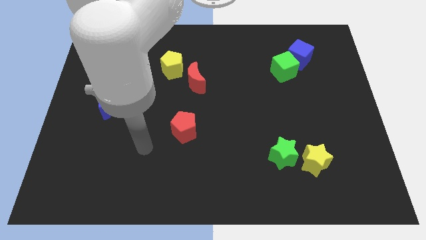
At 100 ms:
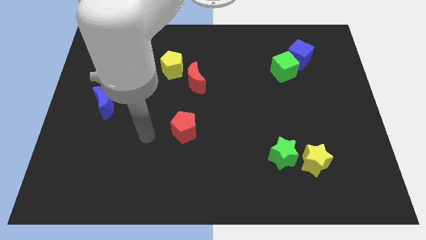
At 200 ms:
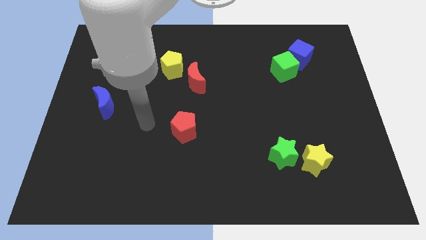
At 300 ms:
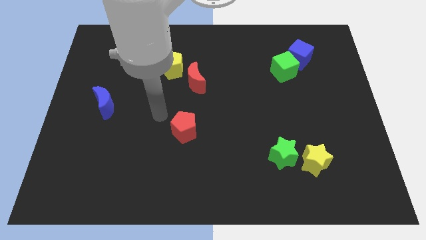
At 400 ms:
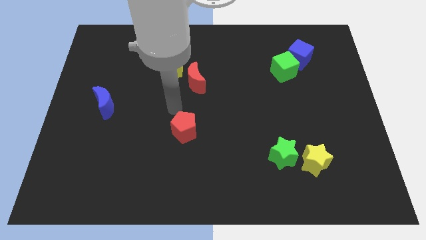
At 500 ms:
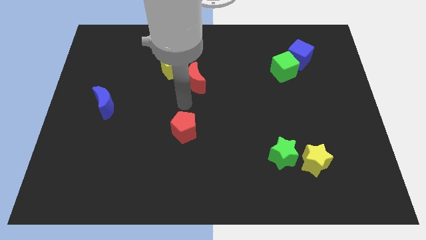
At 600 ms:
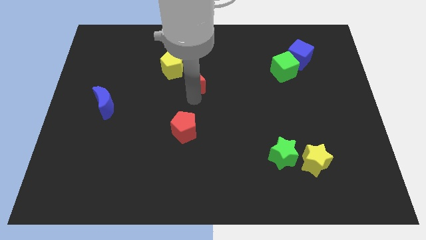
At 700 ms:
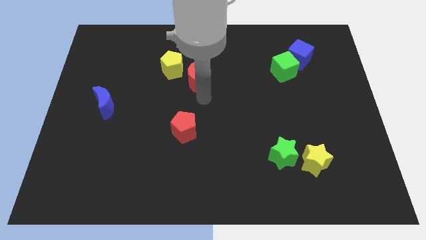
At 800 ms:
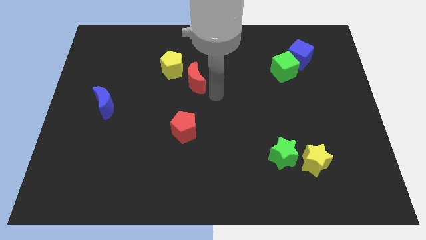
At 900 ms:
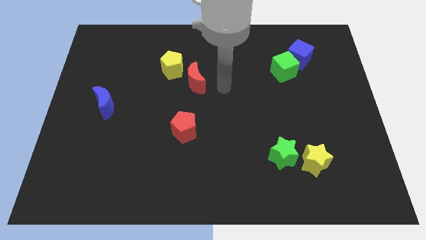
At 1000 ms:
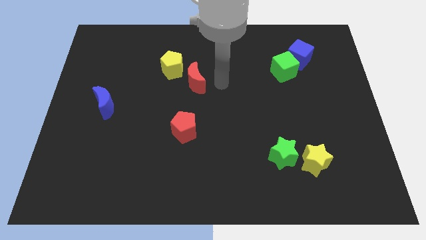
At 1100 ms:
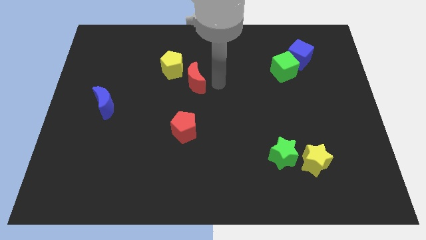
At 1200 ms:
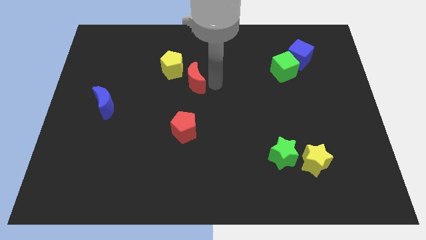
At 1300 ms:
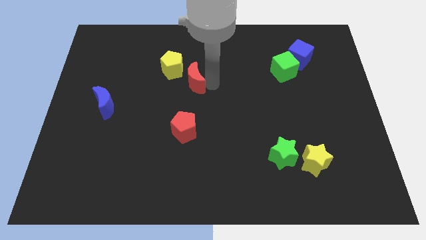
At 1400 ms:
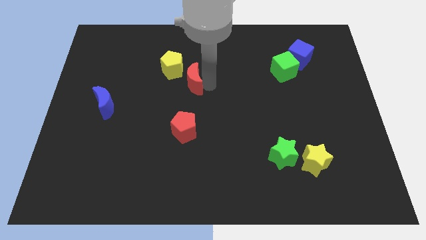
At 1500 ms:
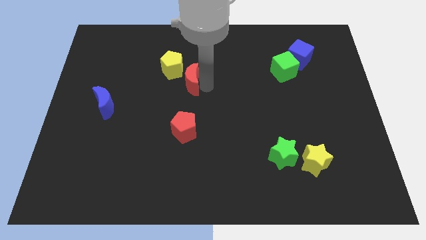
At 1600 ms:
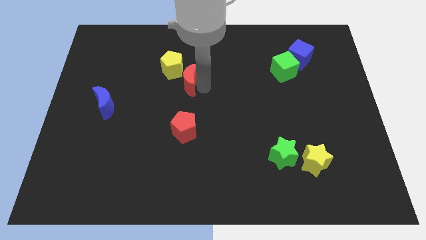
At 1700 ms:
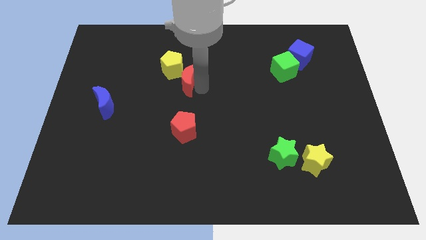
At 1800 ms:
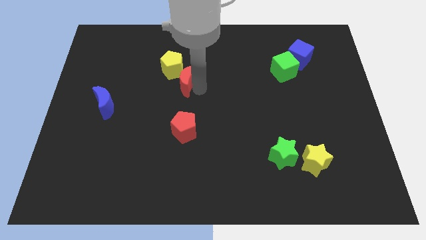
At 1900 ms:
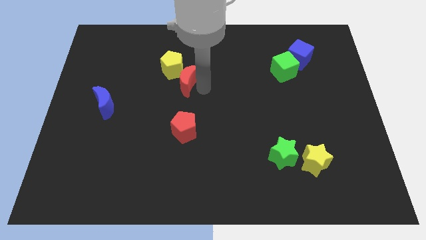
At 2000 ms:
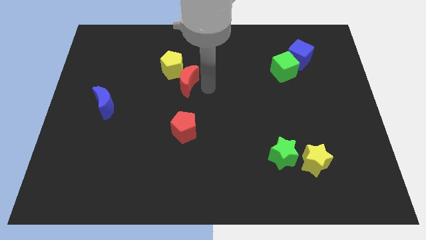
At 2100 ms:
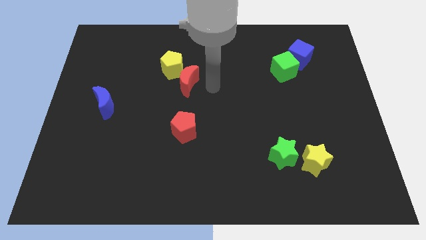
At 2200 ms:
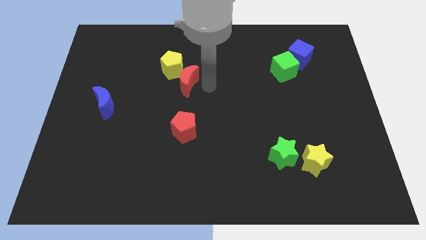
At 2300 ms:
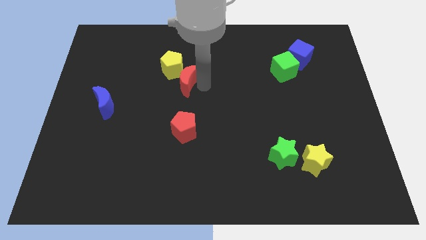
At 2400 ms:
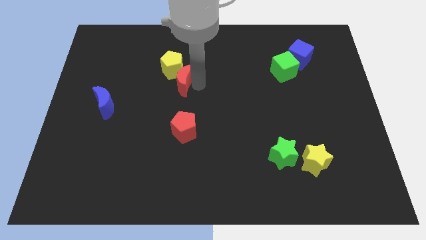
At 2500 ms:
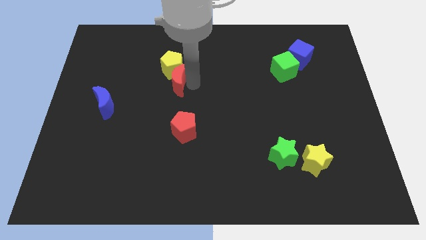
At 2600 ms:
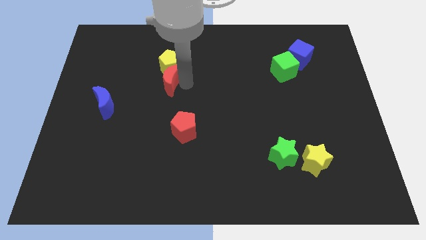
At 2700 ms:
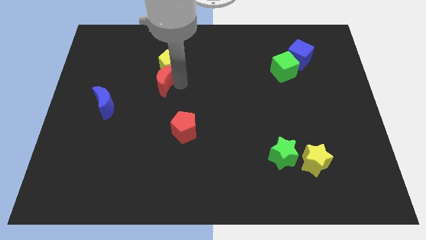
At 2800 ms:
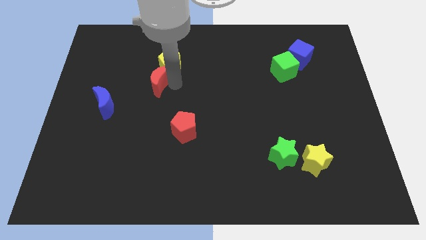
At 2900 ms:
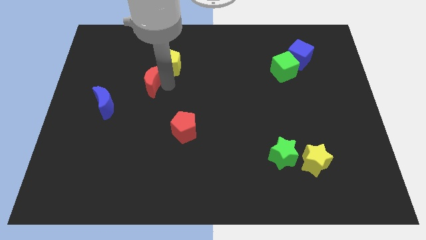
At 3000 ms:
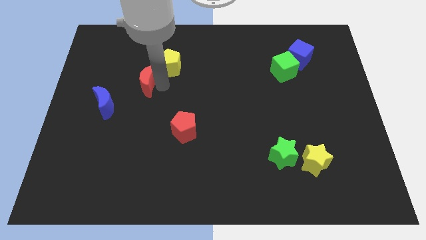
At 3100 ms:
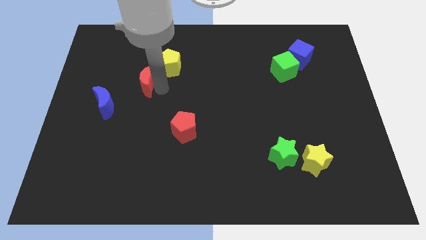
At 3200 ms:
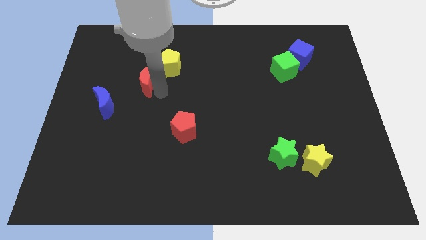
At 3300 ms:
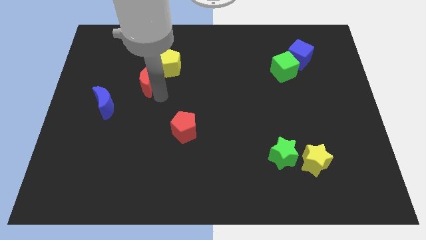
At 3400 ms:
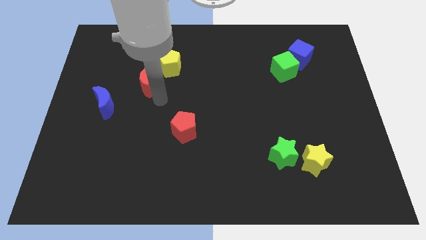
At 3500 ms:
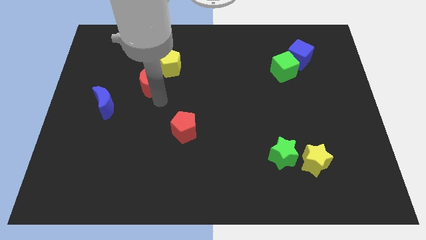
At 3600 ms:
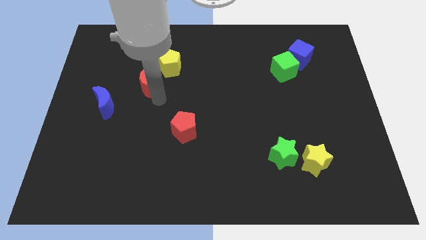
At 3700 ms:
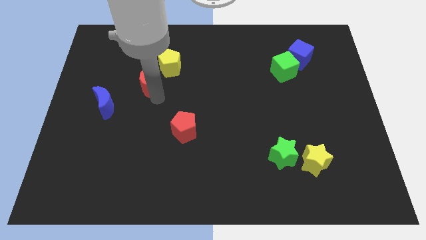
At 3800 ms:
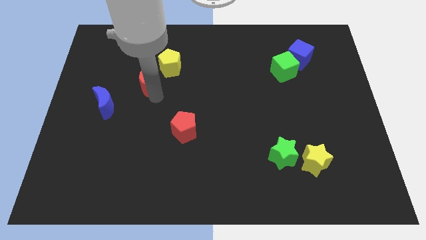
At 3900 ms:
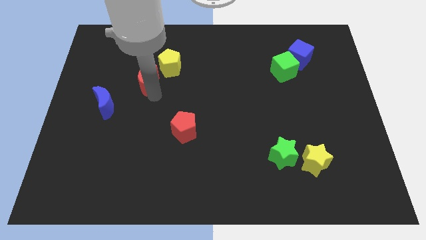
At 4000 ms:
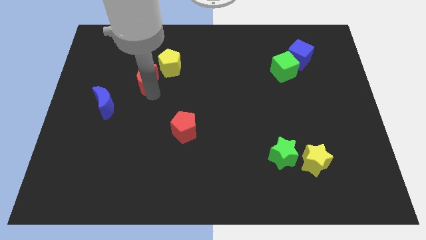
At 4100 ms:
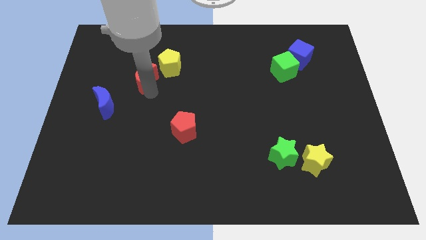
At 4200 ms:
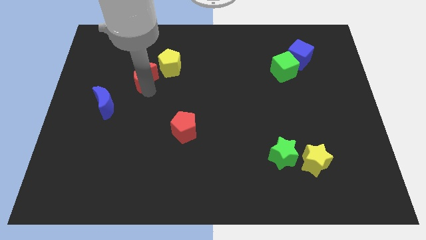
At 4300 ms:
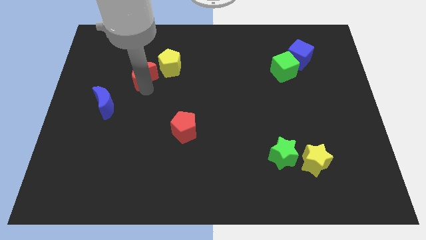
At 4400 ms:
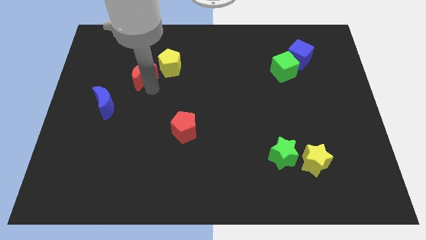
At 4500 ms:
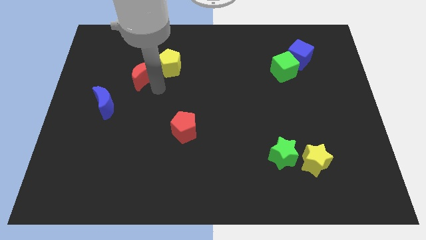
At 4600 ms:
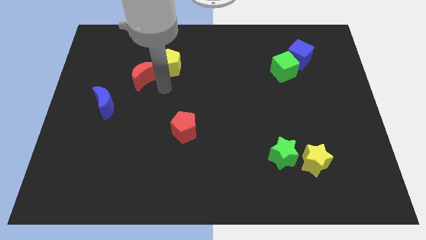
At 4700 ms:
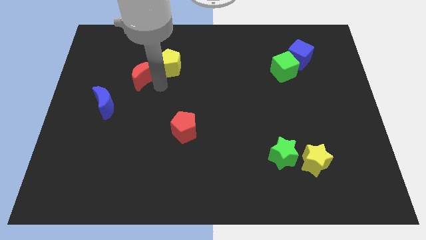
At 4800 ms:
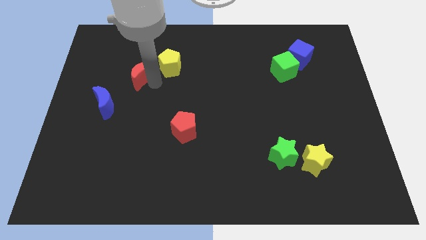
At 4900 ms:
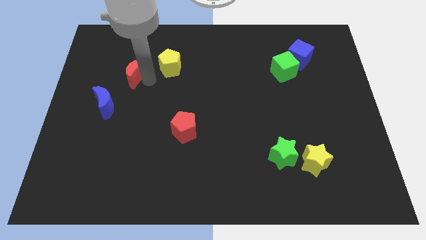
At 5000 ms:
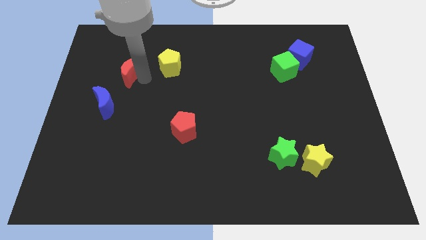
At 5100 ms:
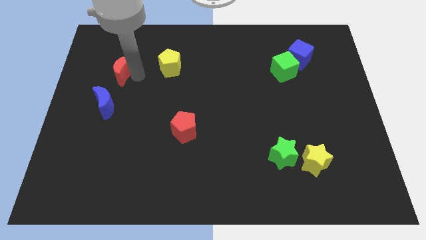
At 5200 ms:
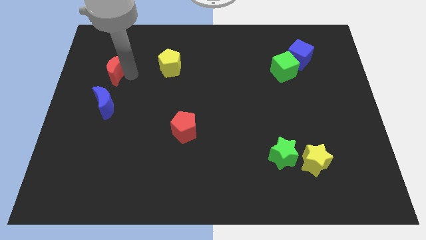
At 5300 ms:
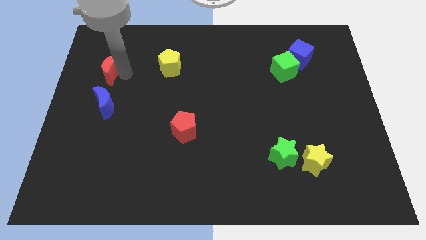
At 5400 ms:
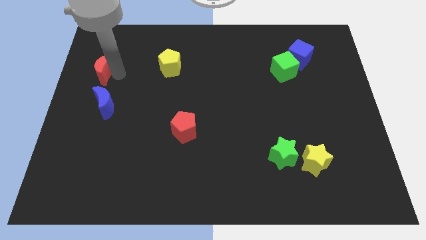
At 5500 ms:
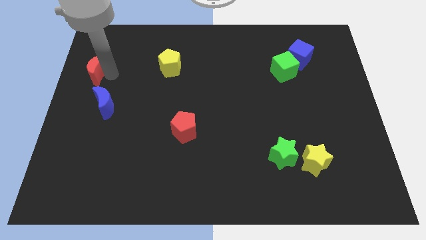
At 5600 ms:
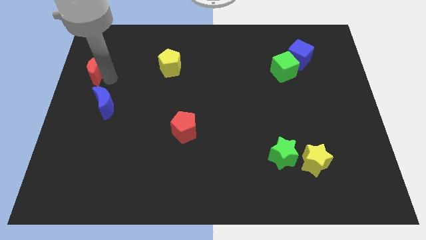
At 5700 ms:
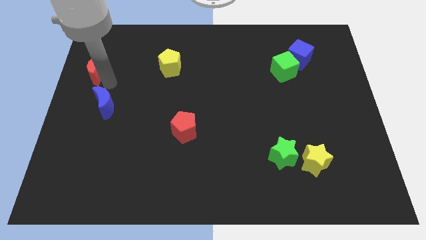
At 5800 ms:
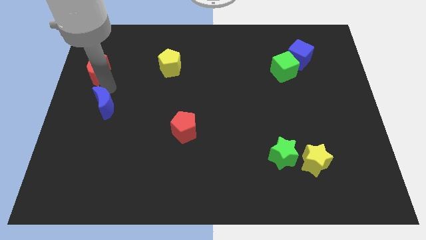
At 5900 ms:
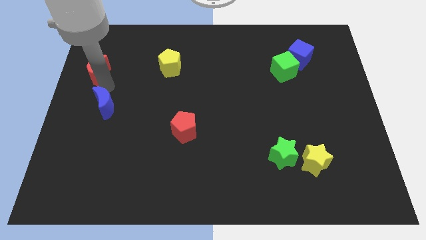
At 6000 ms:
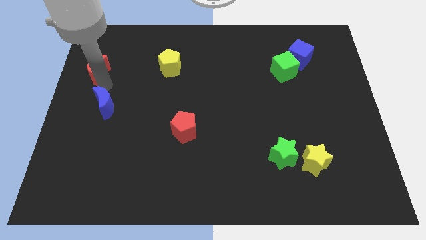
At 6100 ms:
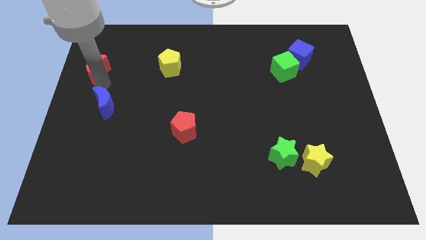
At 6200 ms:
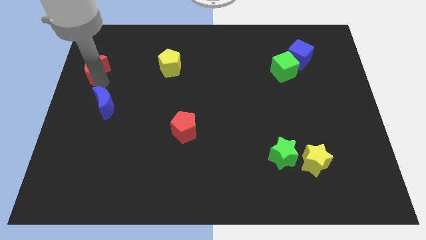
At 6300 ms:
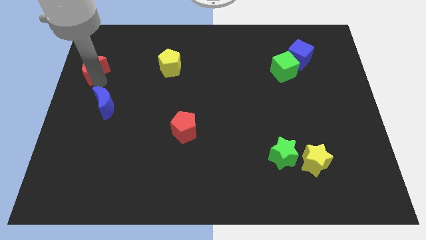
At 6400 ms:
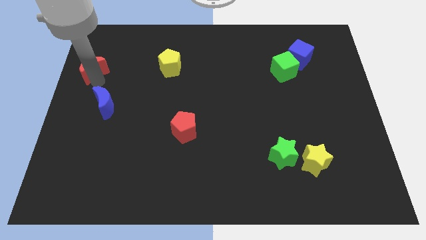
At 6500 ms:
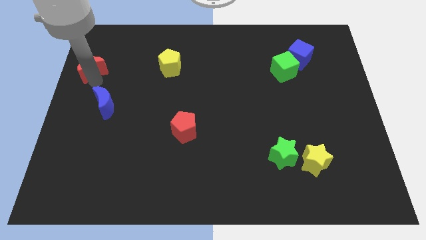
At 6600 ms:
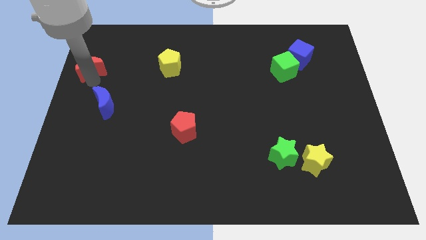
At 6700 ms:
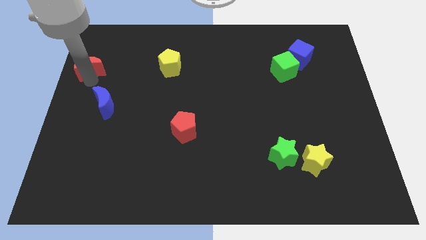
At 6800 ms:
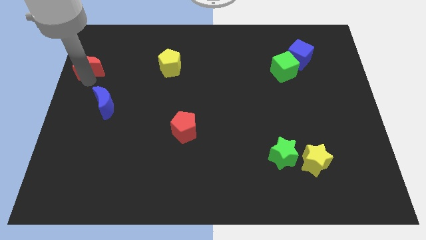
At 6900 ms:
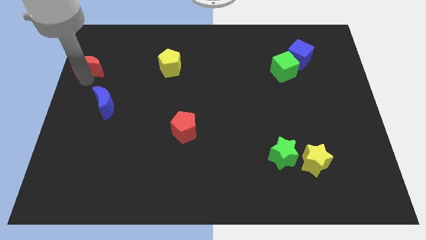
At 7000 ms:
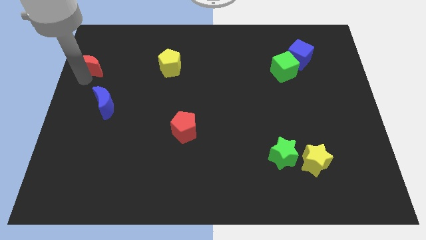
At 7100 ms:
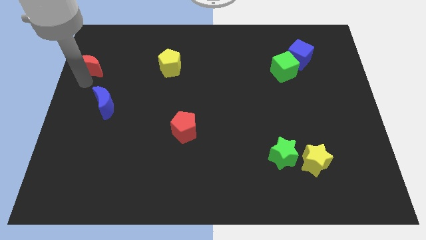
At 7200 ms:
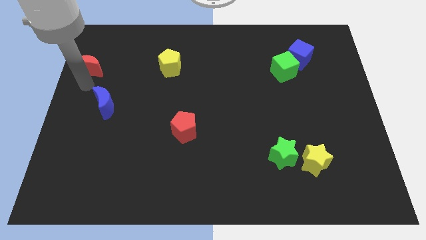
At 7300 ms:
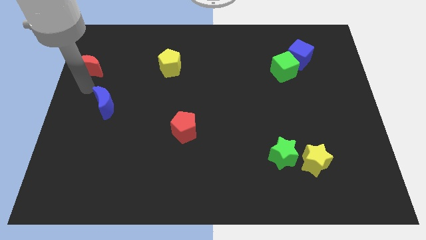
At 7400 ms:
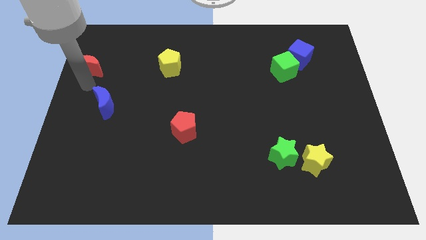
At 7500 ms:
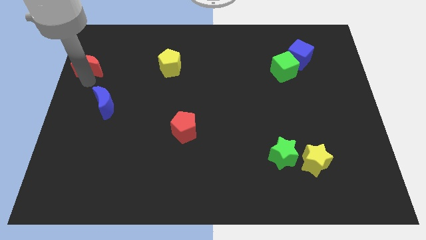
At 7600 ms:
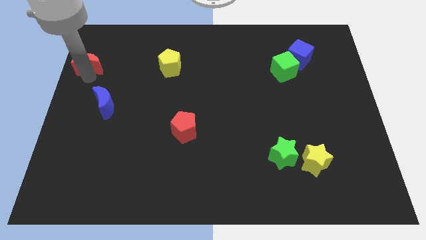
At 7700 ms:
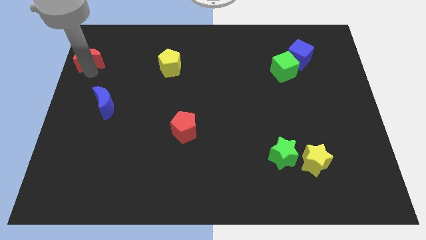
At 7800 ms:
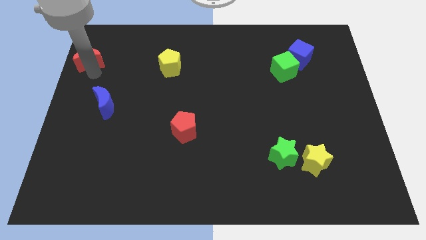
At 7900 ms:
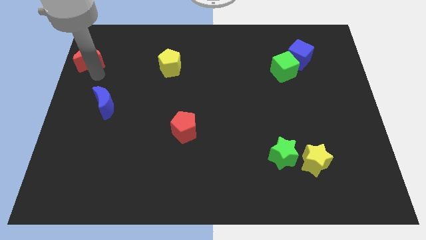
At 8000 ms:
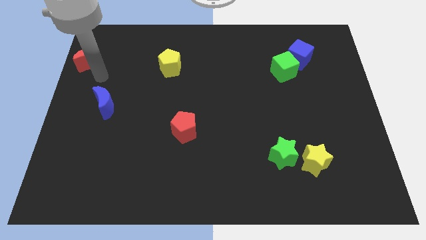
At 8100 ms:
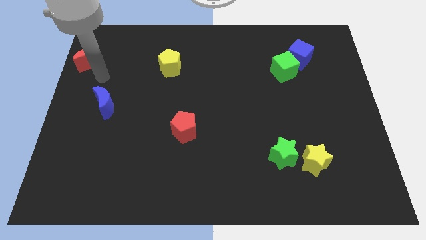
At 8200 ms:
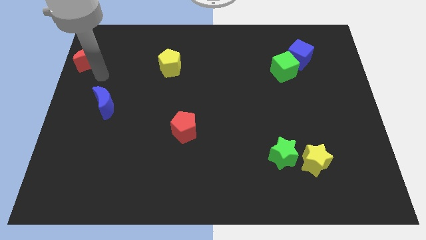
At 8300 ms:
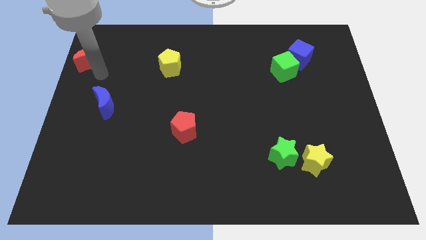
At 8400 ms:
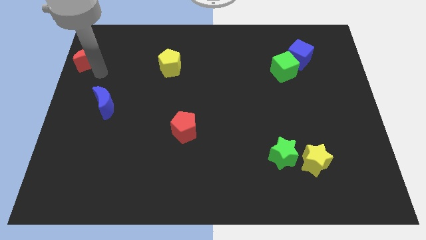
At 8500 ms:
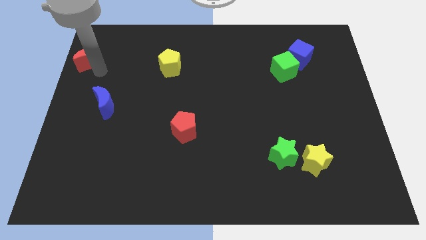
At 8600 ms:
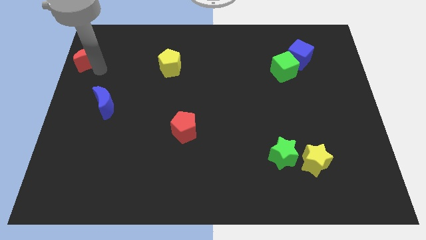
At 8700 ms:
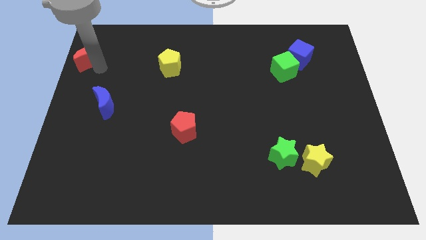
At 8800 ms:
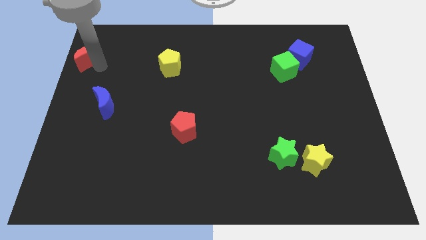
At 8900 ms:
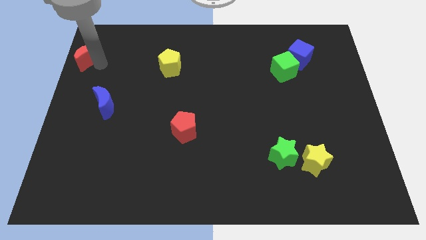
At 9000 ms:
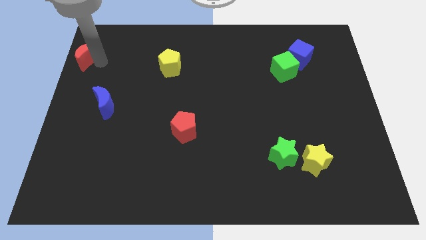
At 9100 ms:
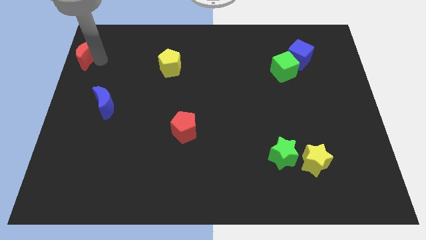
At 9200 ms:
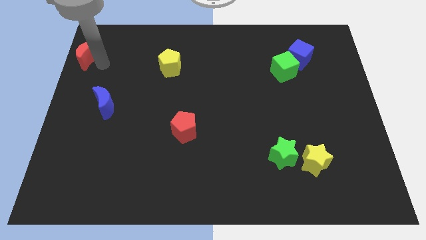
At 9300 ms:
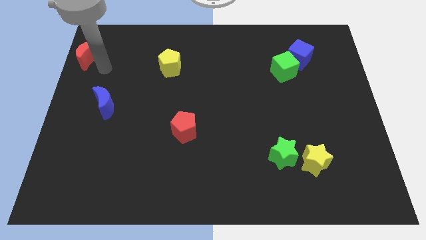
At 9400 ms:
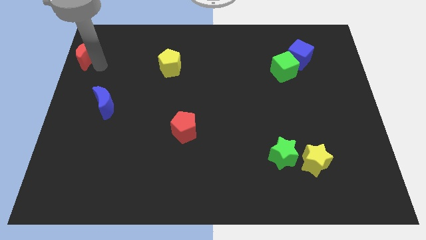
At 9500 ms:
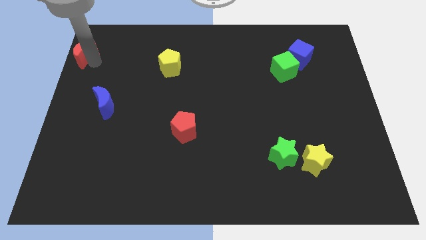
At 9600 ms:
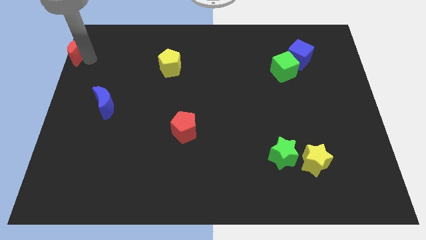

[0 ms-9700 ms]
slide the red moon to the upper left corner
